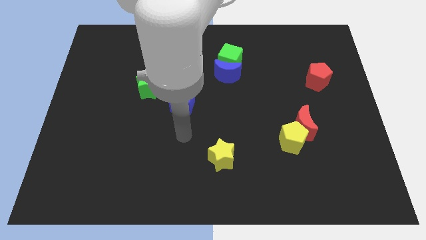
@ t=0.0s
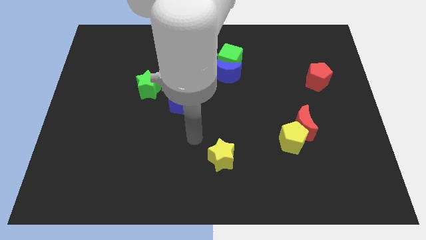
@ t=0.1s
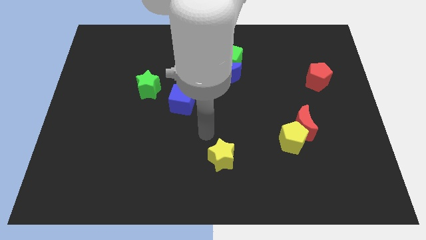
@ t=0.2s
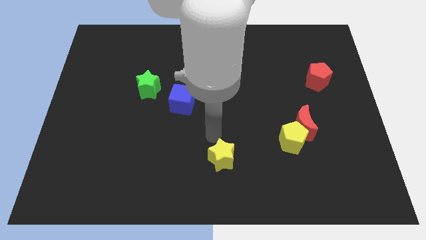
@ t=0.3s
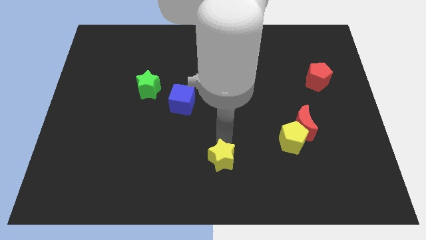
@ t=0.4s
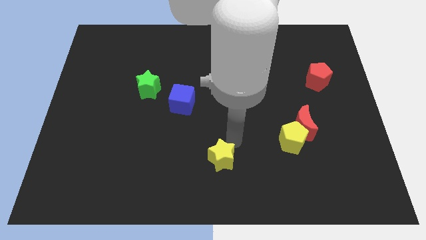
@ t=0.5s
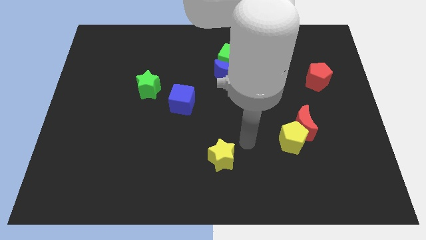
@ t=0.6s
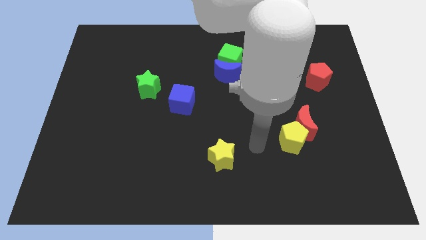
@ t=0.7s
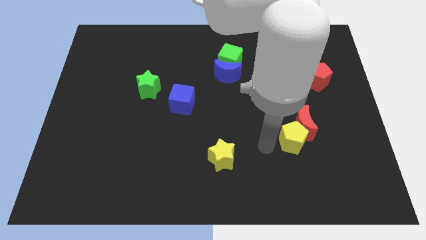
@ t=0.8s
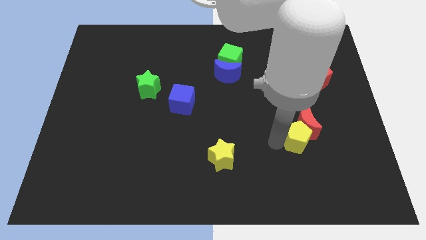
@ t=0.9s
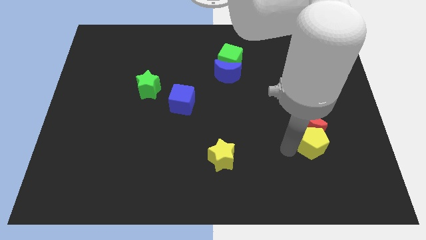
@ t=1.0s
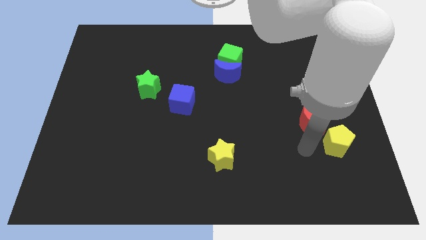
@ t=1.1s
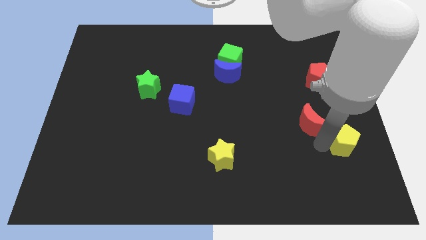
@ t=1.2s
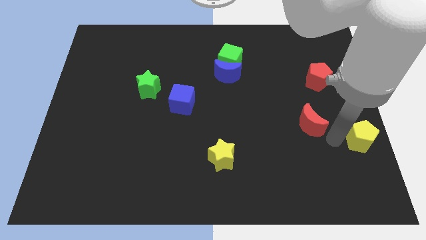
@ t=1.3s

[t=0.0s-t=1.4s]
move the red moon away from the yellow pentagon

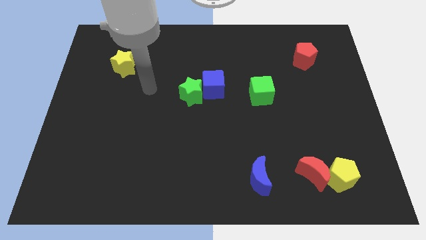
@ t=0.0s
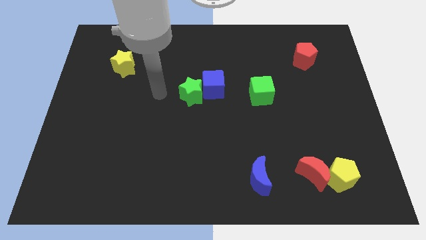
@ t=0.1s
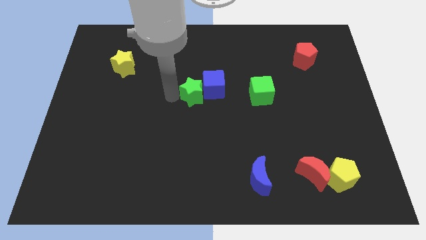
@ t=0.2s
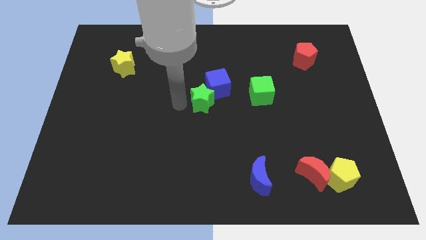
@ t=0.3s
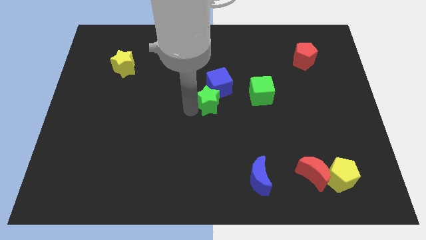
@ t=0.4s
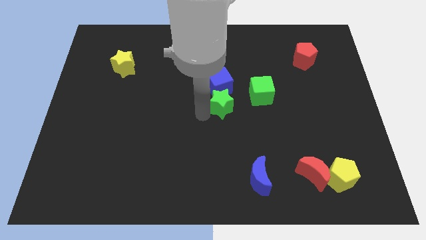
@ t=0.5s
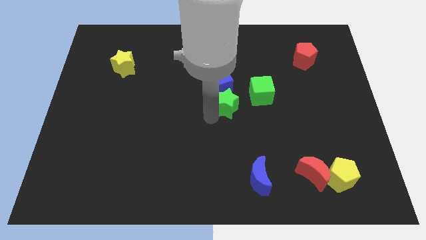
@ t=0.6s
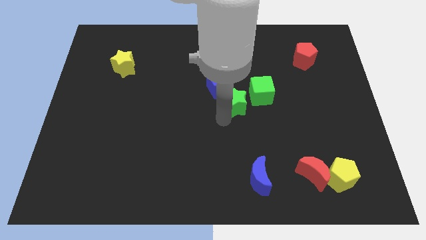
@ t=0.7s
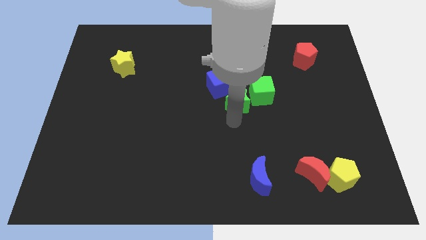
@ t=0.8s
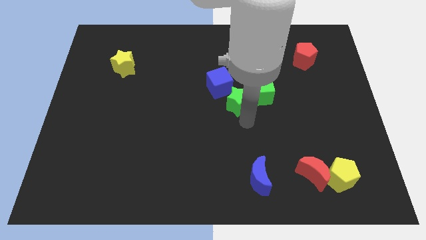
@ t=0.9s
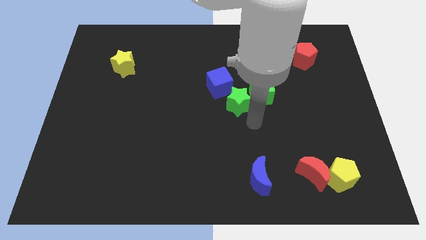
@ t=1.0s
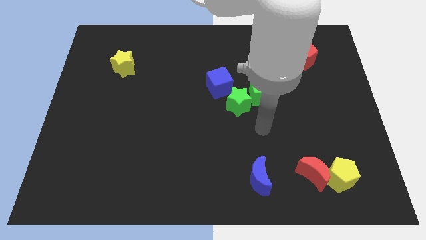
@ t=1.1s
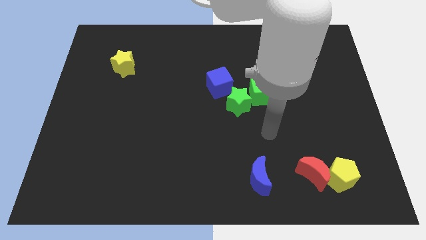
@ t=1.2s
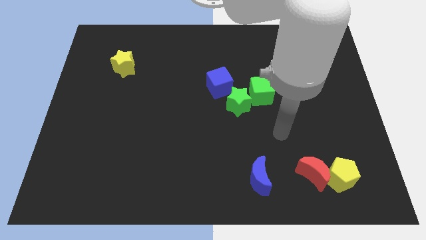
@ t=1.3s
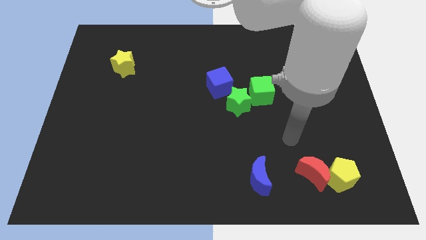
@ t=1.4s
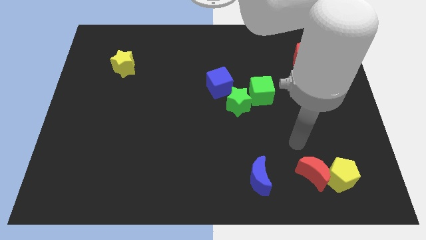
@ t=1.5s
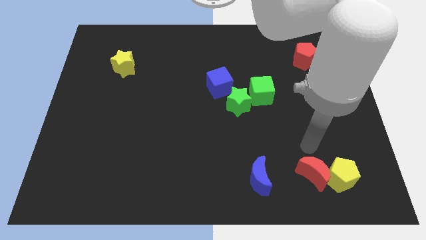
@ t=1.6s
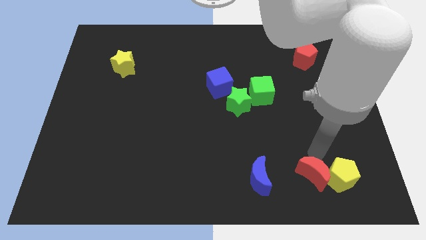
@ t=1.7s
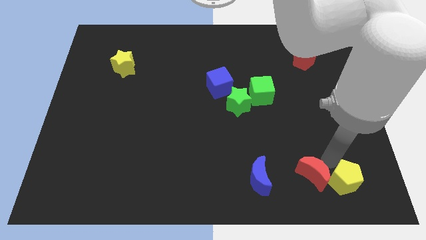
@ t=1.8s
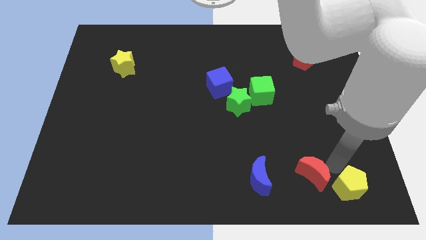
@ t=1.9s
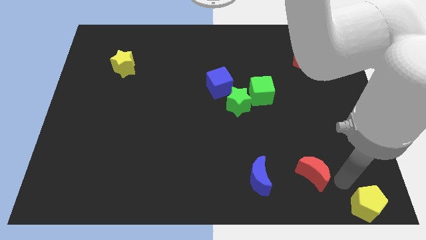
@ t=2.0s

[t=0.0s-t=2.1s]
pull the red moon apart from the yellow pentagon

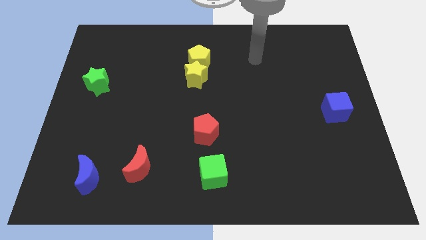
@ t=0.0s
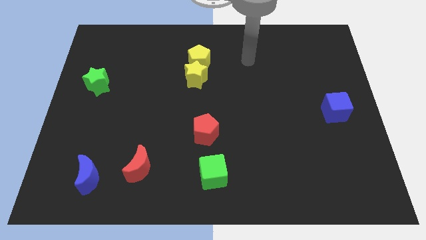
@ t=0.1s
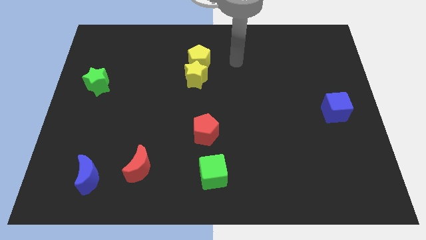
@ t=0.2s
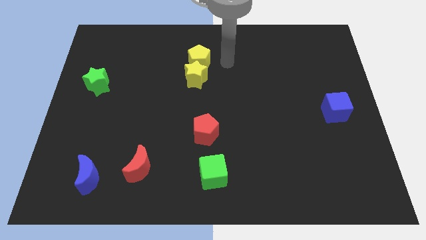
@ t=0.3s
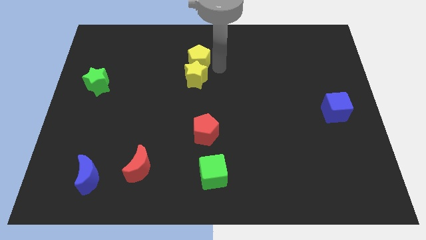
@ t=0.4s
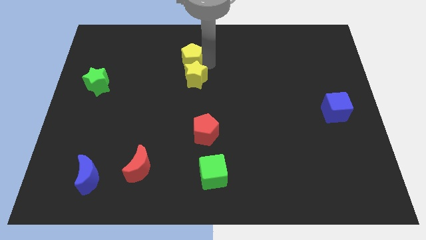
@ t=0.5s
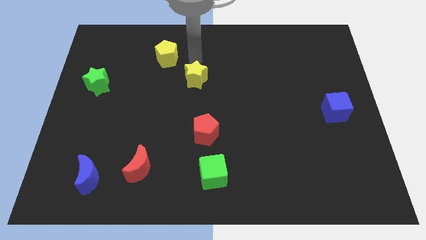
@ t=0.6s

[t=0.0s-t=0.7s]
move the yellow star away from the yellow pentagon

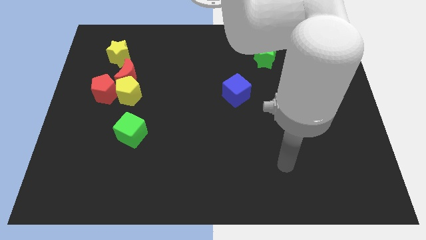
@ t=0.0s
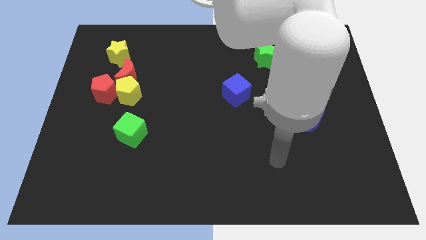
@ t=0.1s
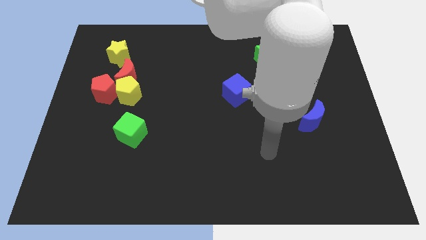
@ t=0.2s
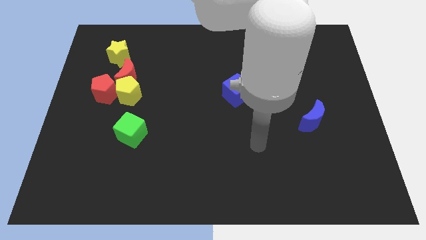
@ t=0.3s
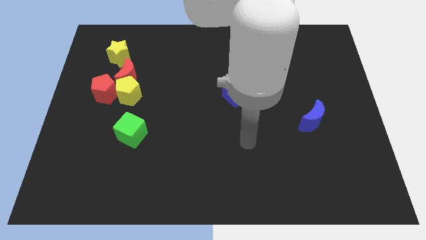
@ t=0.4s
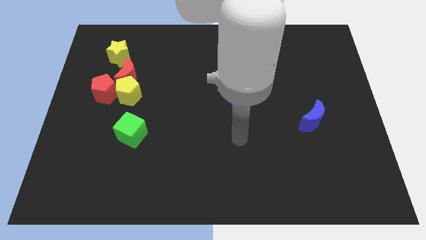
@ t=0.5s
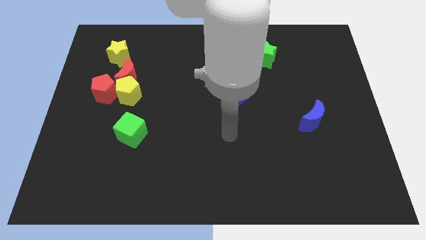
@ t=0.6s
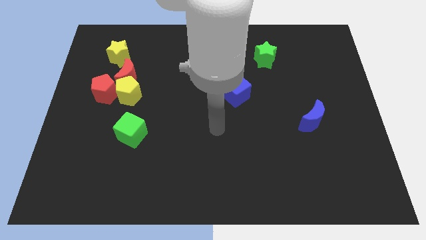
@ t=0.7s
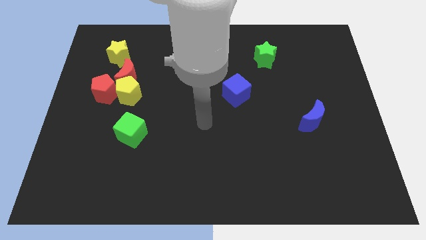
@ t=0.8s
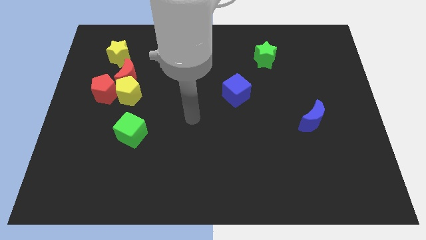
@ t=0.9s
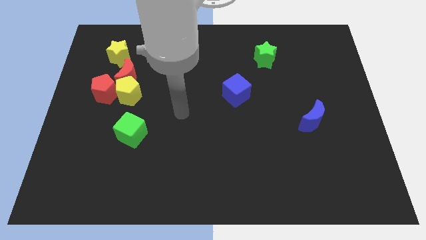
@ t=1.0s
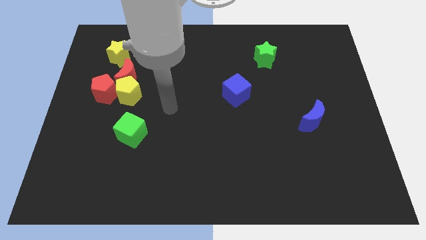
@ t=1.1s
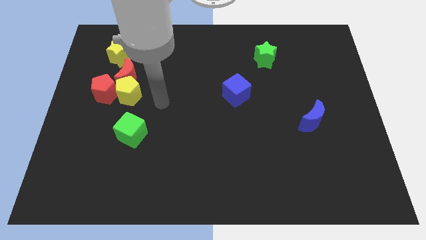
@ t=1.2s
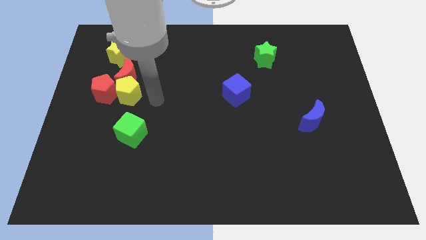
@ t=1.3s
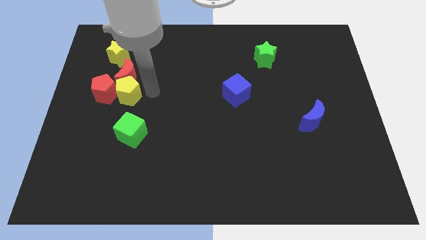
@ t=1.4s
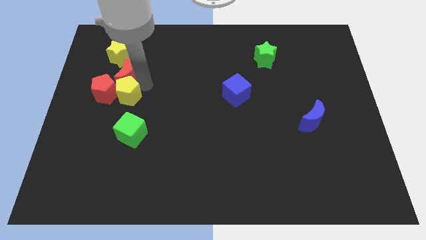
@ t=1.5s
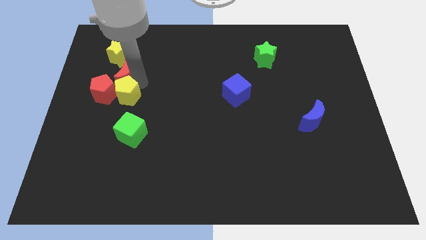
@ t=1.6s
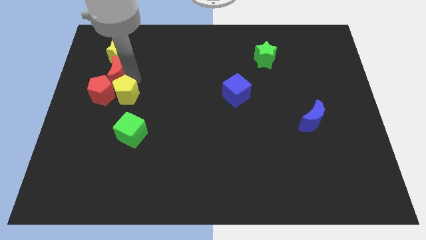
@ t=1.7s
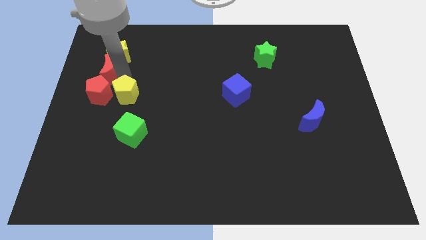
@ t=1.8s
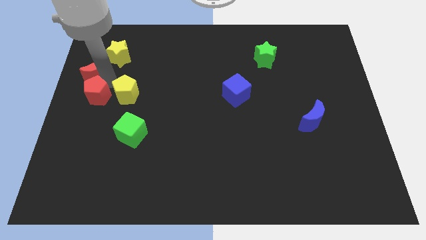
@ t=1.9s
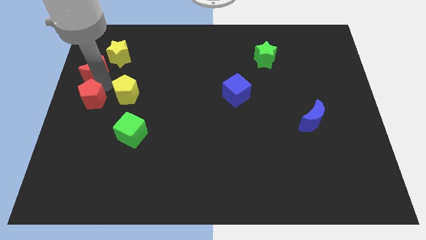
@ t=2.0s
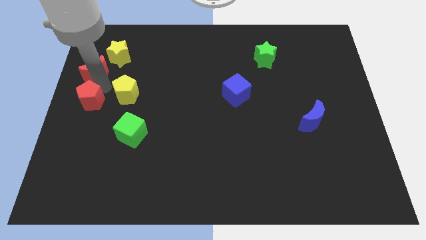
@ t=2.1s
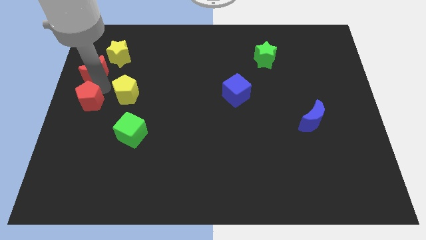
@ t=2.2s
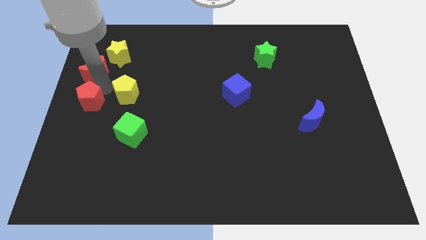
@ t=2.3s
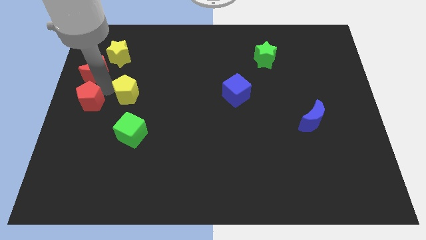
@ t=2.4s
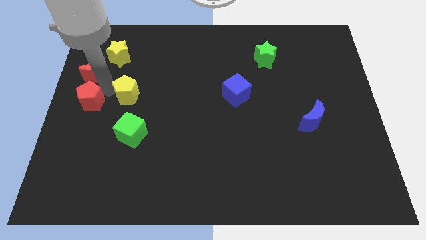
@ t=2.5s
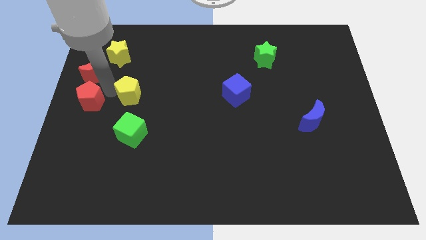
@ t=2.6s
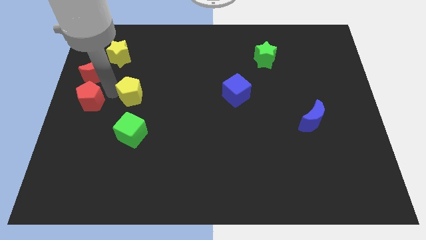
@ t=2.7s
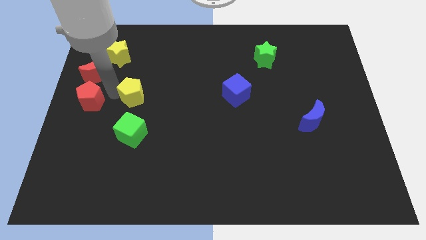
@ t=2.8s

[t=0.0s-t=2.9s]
pull the yellow pentagon apart from the red moon and red pentagon

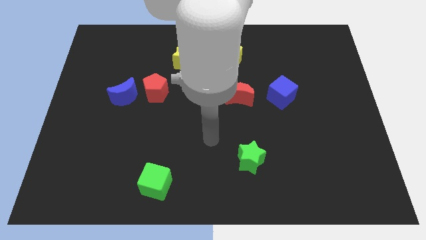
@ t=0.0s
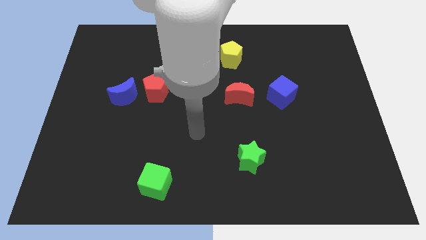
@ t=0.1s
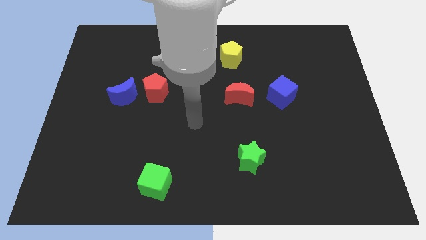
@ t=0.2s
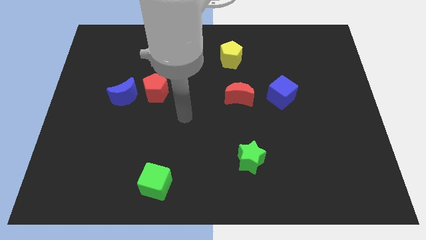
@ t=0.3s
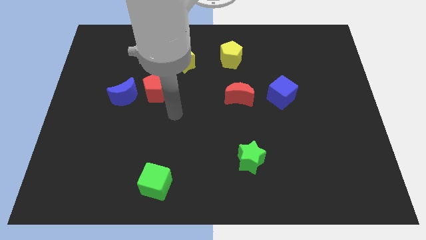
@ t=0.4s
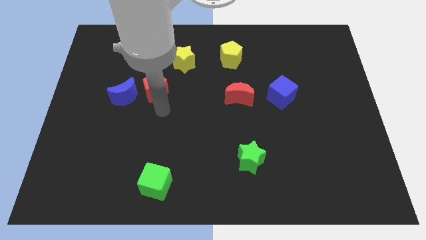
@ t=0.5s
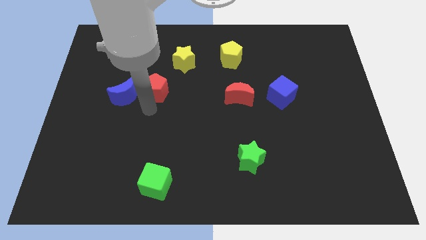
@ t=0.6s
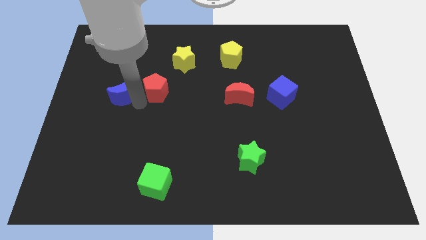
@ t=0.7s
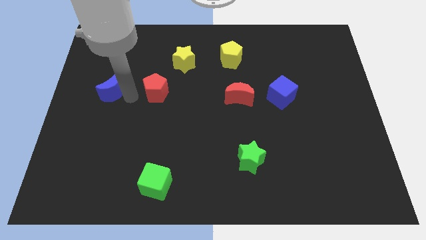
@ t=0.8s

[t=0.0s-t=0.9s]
pull the red pentagon apart from the blue moon

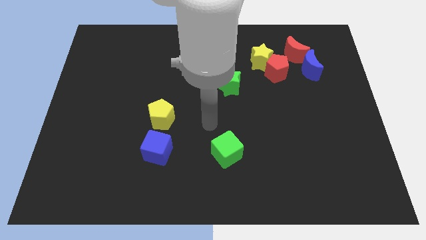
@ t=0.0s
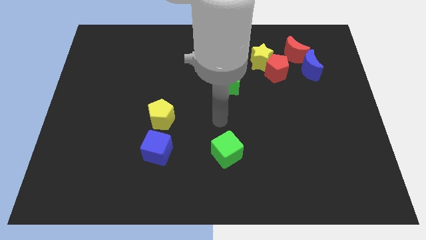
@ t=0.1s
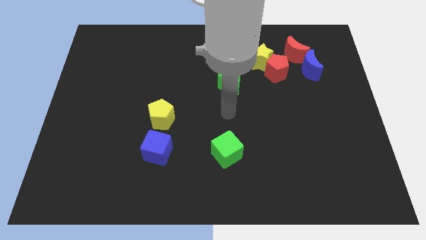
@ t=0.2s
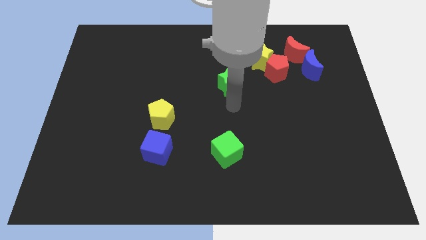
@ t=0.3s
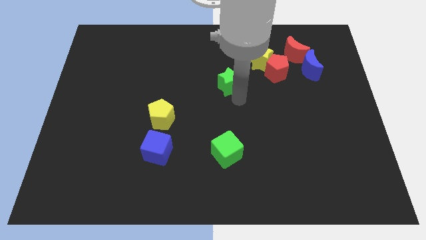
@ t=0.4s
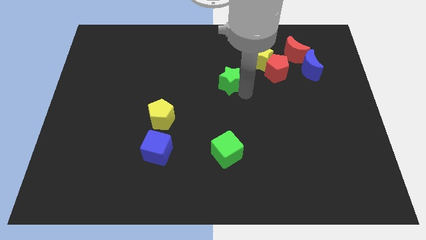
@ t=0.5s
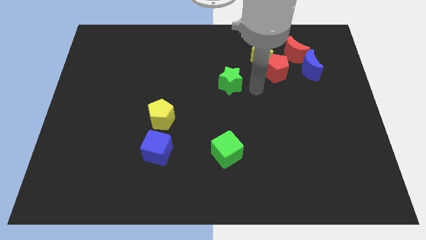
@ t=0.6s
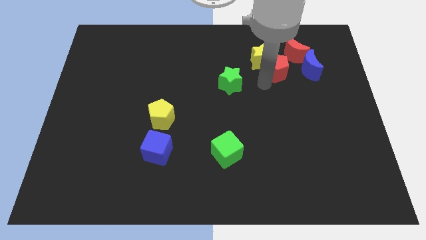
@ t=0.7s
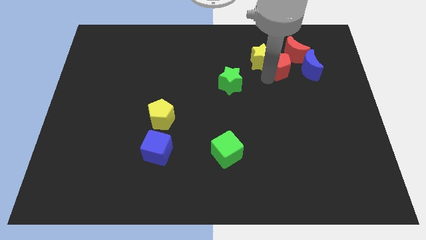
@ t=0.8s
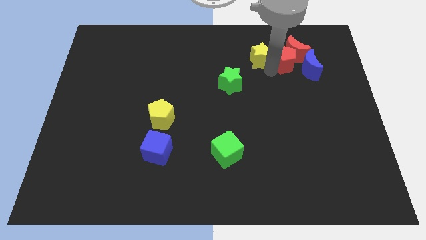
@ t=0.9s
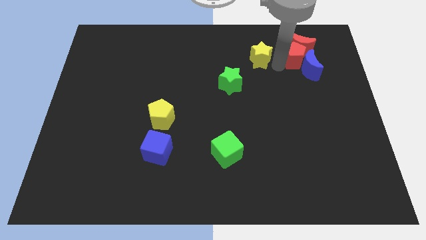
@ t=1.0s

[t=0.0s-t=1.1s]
pull the yellow star apart from the red pentagon and red moon

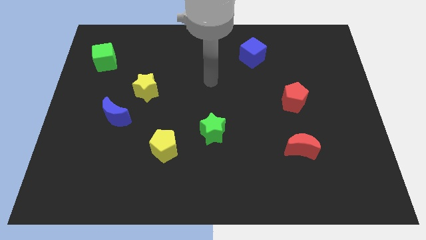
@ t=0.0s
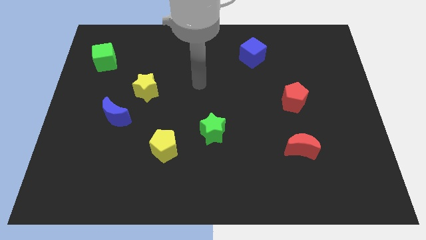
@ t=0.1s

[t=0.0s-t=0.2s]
separate the blue moon from the yellow star

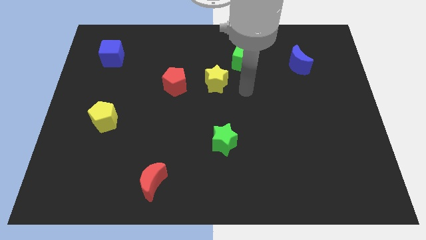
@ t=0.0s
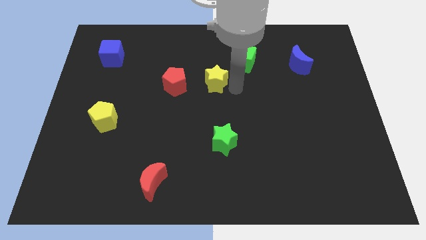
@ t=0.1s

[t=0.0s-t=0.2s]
pull the red pentagon apart from the yellow star
